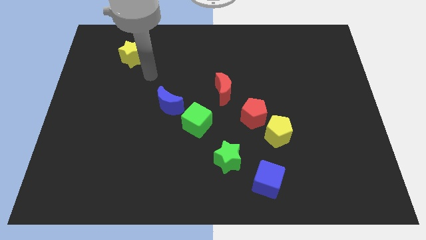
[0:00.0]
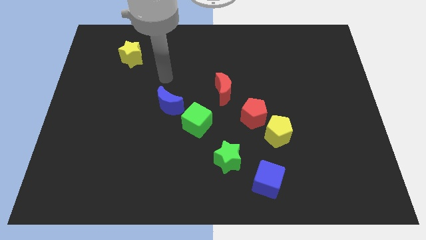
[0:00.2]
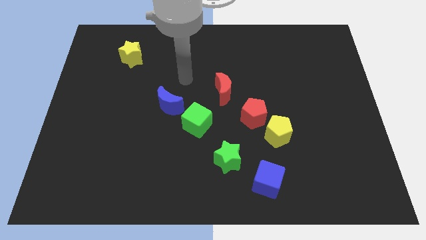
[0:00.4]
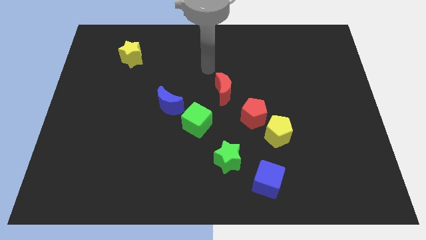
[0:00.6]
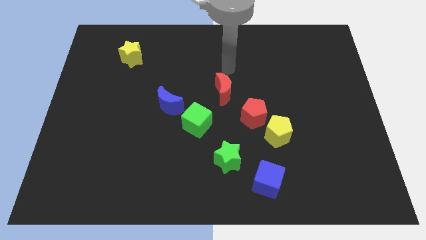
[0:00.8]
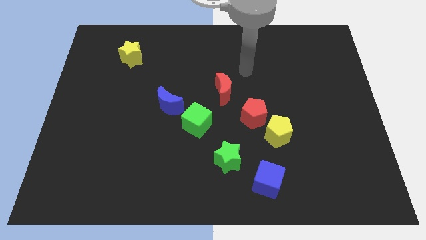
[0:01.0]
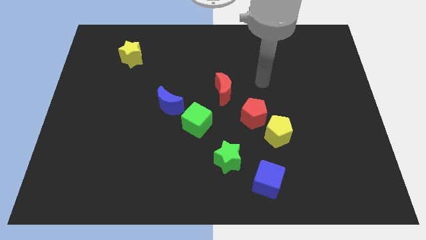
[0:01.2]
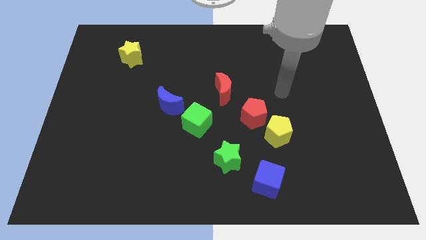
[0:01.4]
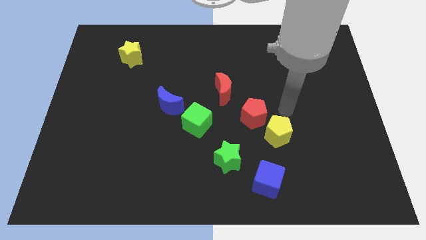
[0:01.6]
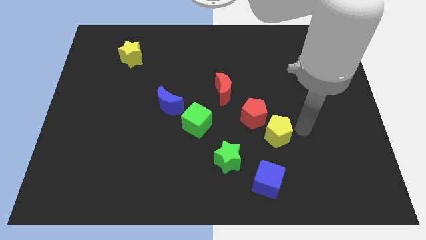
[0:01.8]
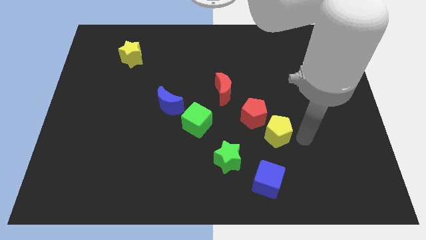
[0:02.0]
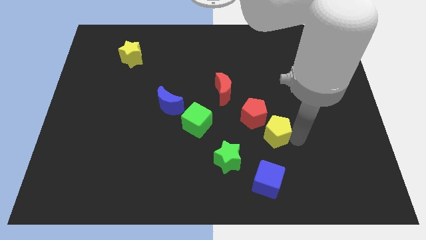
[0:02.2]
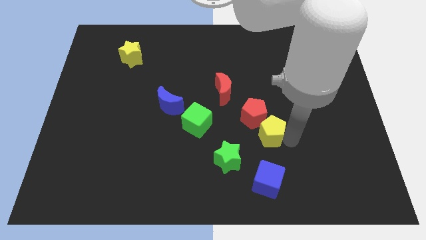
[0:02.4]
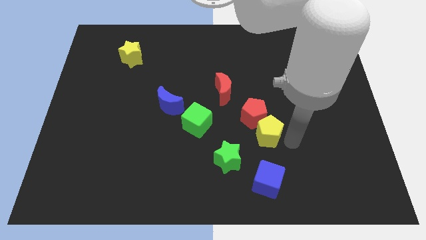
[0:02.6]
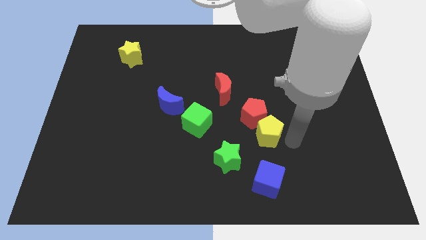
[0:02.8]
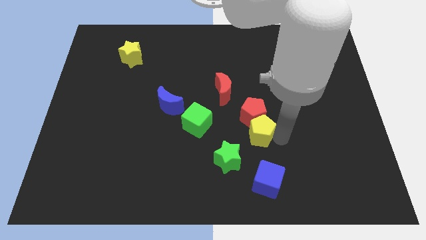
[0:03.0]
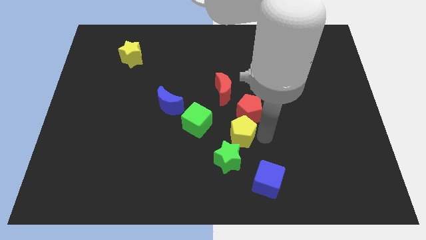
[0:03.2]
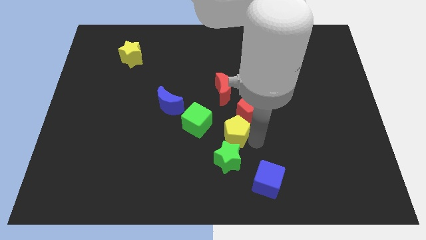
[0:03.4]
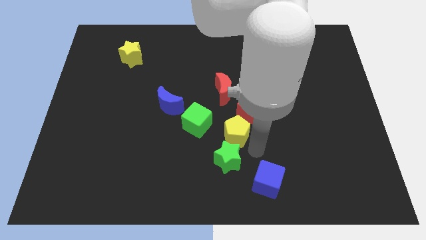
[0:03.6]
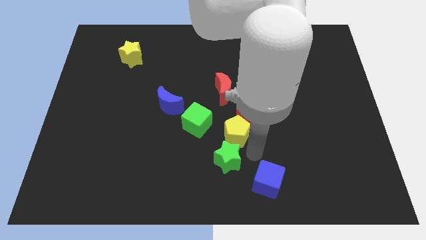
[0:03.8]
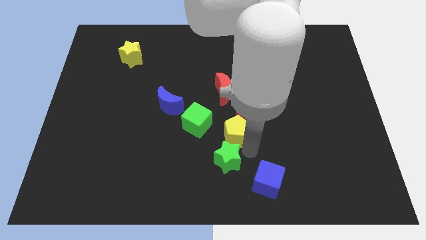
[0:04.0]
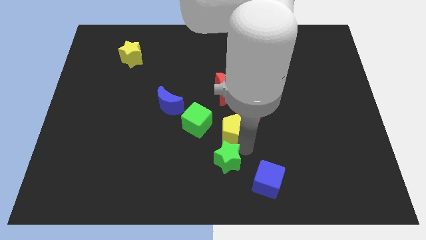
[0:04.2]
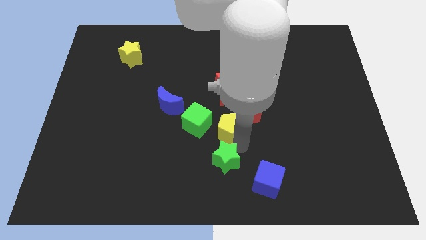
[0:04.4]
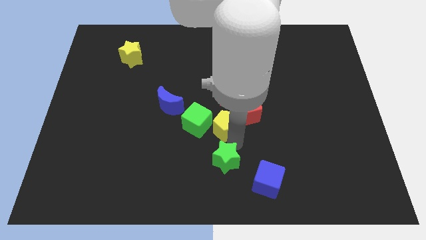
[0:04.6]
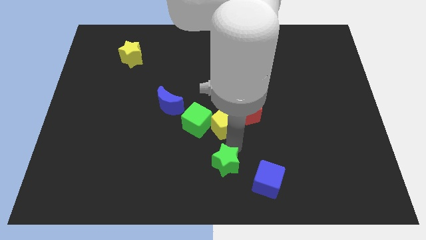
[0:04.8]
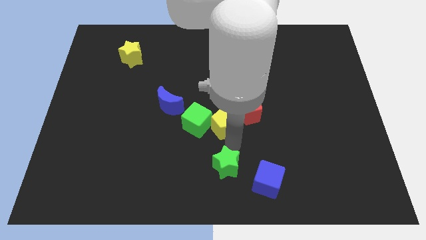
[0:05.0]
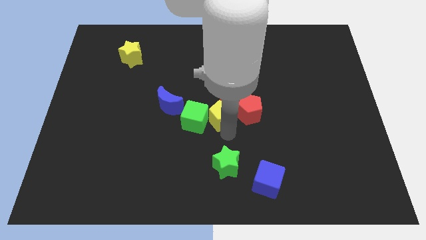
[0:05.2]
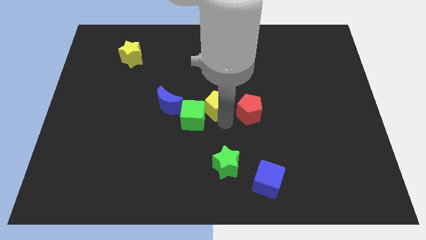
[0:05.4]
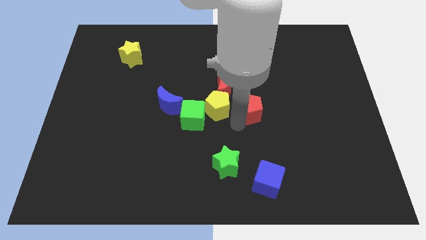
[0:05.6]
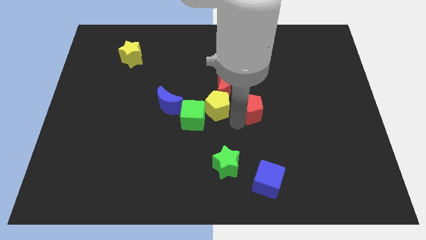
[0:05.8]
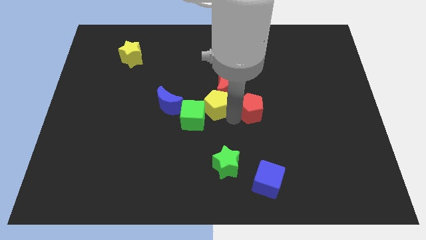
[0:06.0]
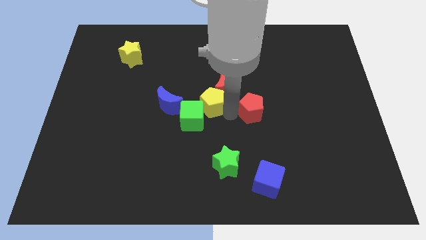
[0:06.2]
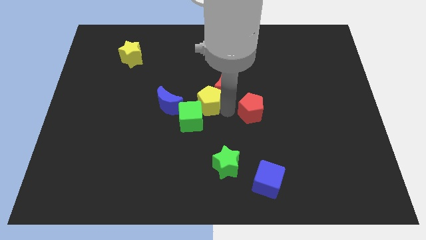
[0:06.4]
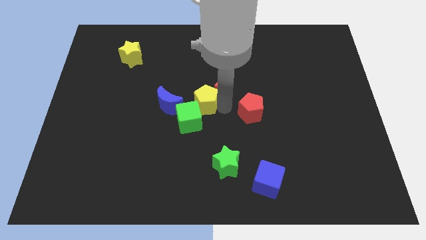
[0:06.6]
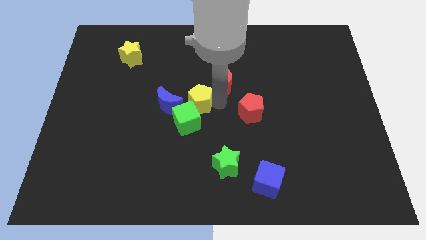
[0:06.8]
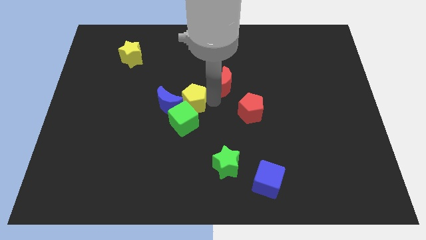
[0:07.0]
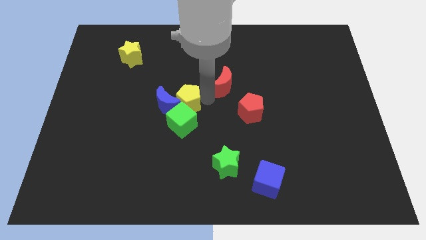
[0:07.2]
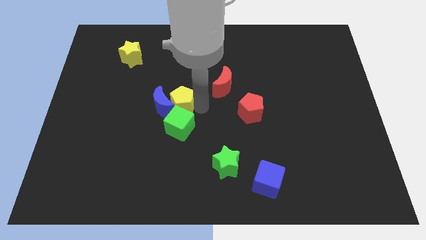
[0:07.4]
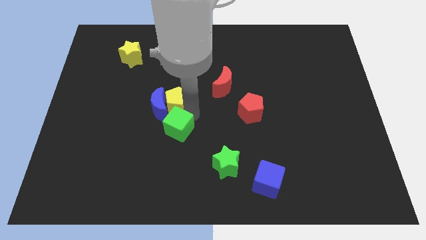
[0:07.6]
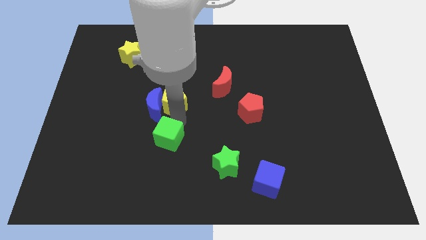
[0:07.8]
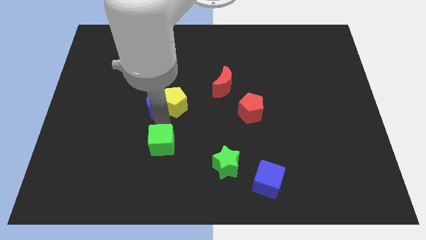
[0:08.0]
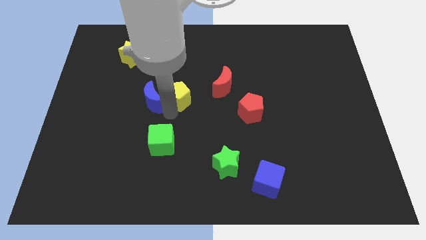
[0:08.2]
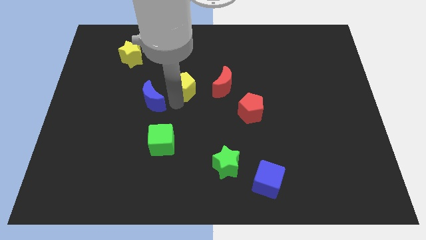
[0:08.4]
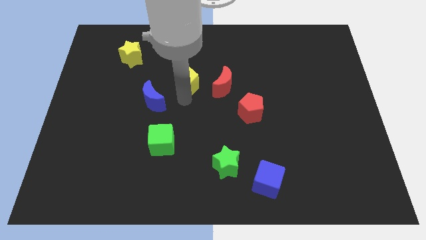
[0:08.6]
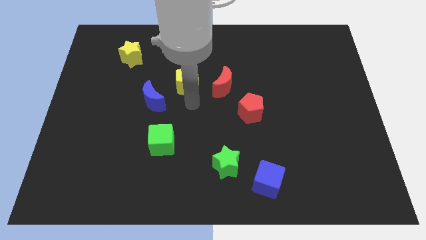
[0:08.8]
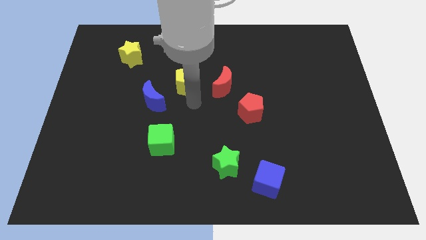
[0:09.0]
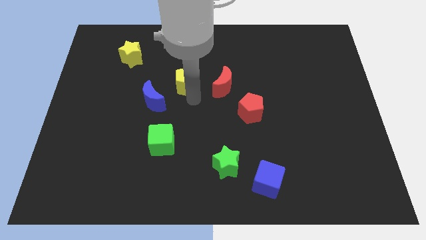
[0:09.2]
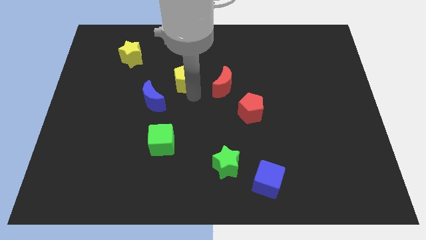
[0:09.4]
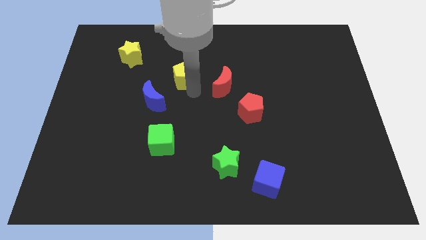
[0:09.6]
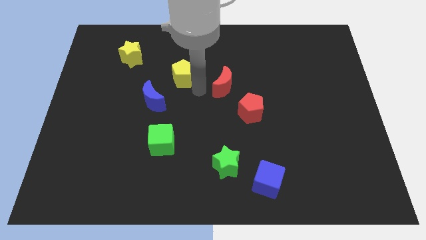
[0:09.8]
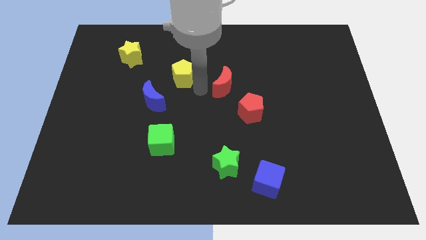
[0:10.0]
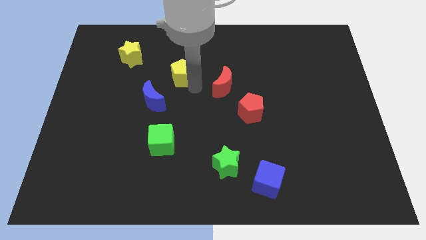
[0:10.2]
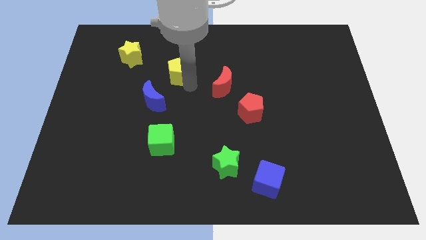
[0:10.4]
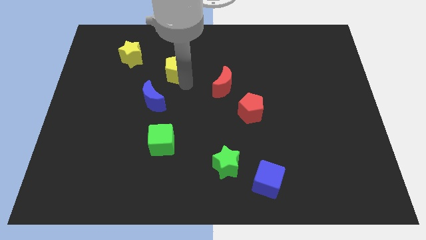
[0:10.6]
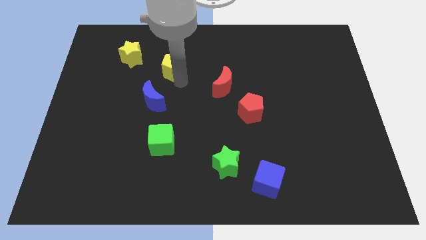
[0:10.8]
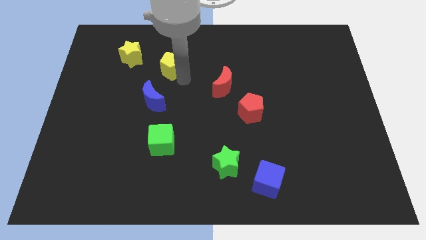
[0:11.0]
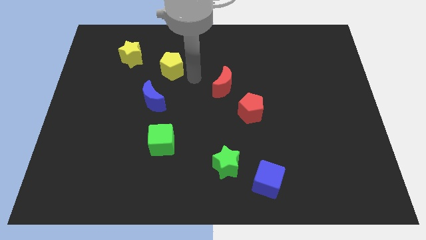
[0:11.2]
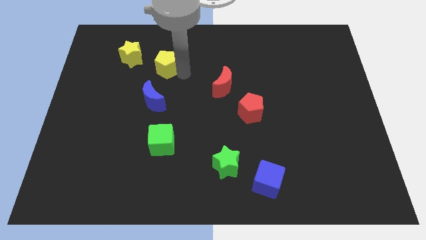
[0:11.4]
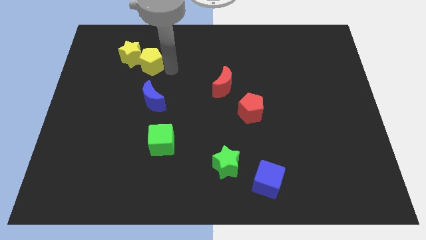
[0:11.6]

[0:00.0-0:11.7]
push the yellow pentagon towards the yellow star

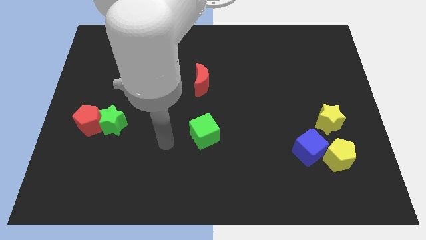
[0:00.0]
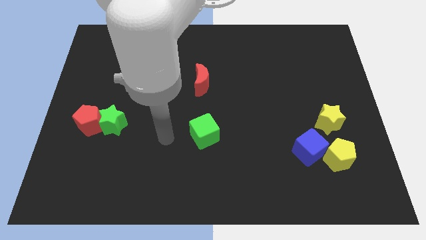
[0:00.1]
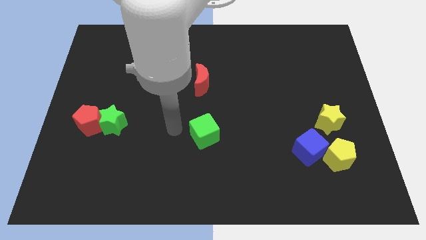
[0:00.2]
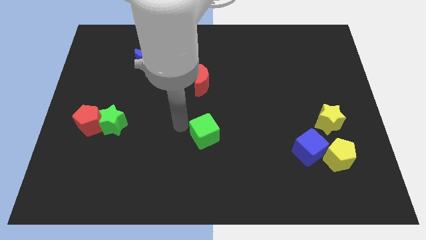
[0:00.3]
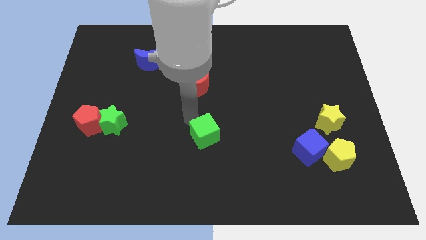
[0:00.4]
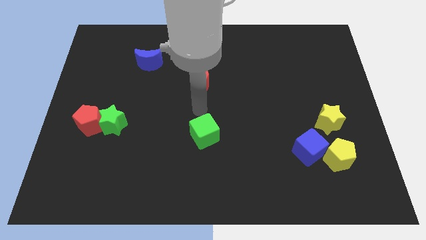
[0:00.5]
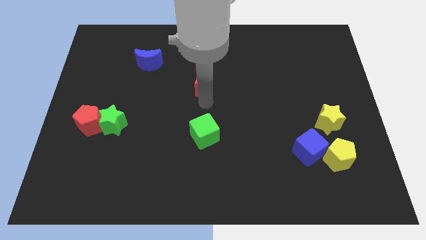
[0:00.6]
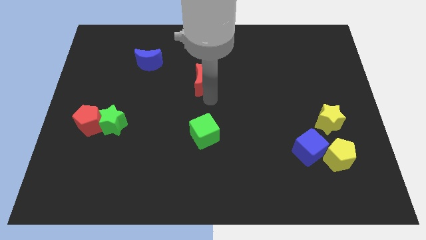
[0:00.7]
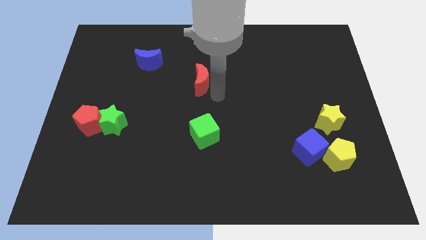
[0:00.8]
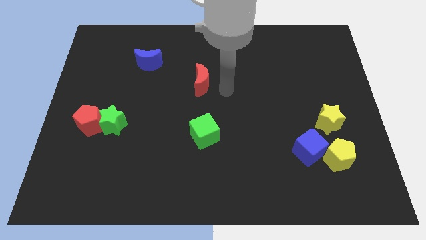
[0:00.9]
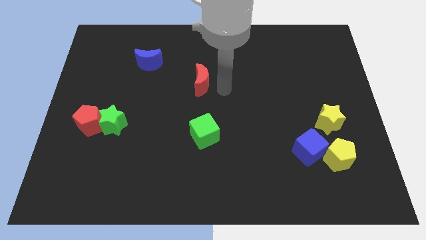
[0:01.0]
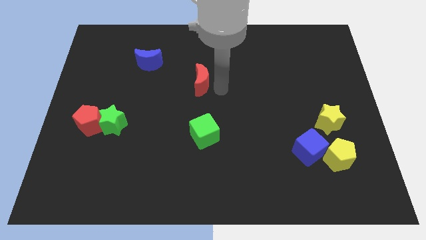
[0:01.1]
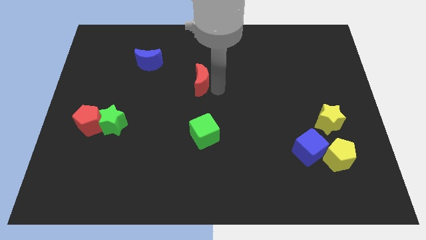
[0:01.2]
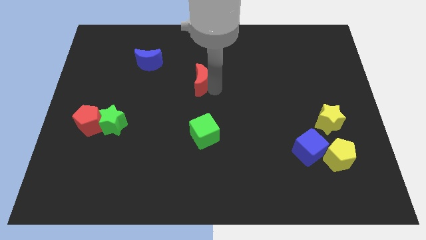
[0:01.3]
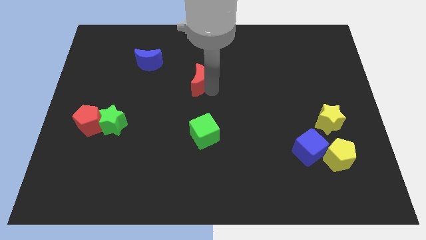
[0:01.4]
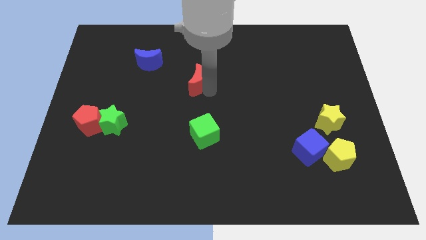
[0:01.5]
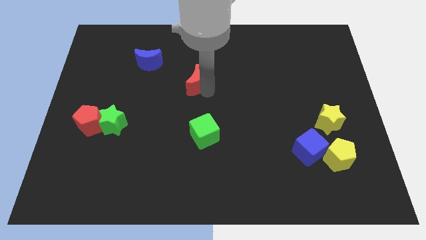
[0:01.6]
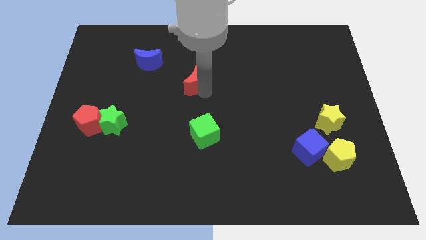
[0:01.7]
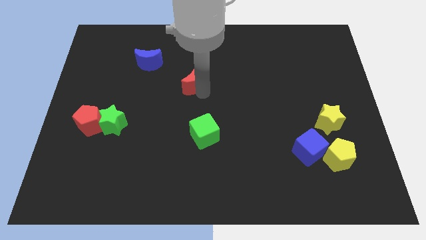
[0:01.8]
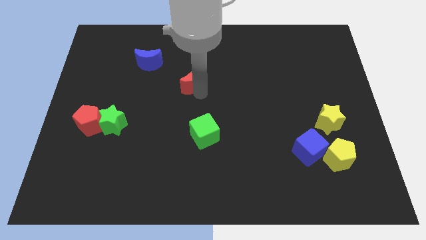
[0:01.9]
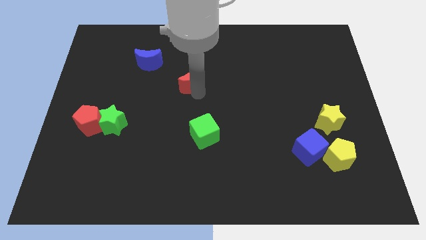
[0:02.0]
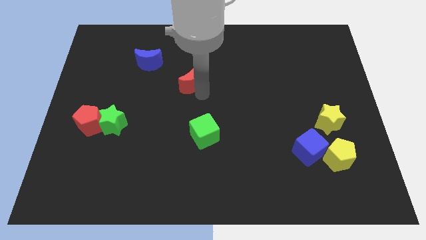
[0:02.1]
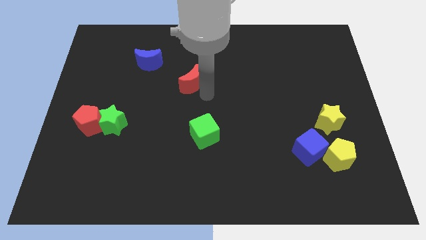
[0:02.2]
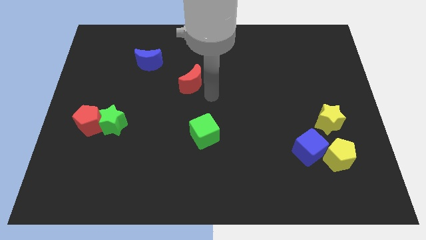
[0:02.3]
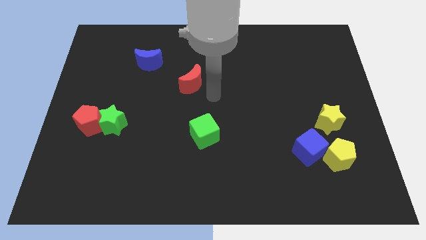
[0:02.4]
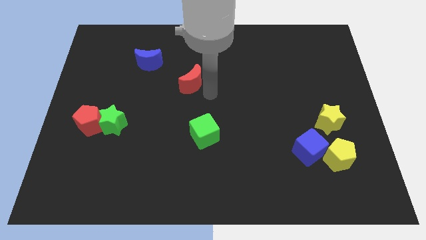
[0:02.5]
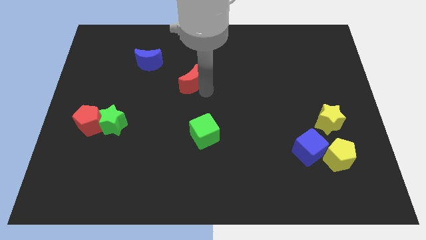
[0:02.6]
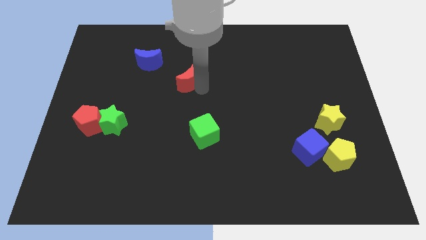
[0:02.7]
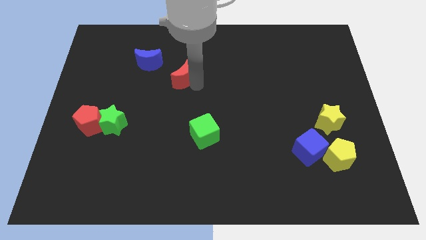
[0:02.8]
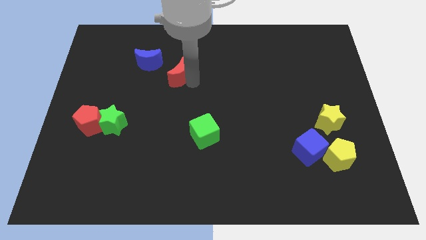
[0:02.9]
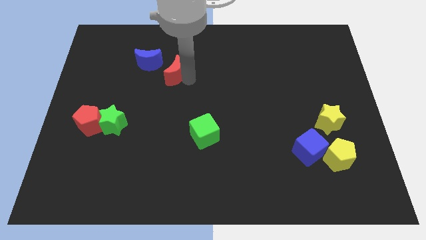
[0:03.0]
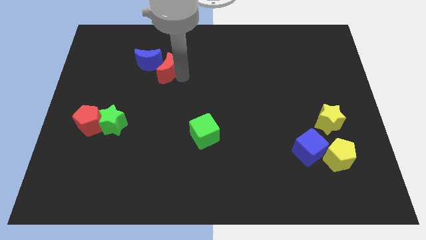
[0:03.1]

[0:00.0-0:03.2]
move the red moon close to the blue moon
